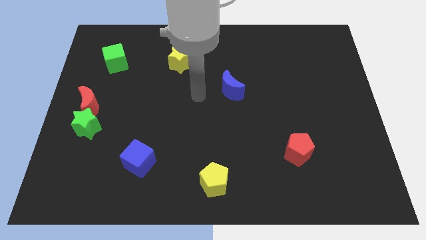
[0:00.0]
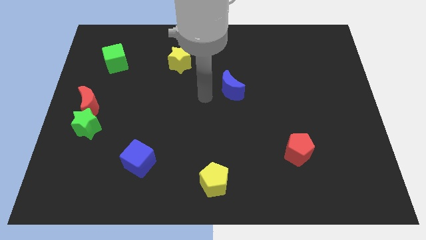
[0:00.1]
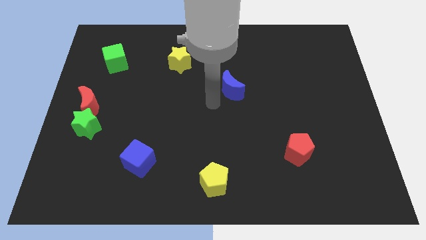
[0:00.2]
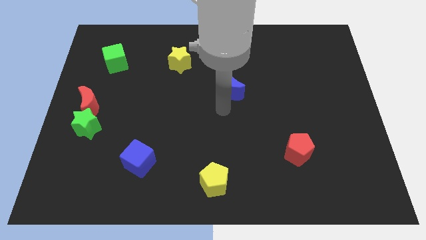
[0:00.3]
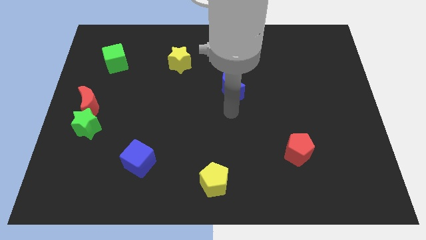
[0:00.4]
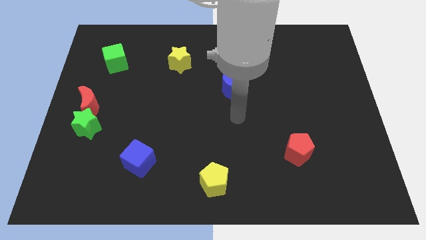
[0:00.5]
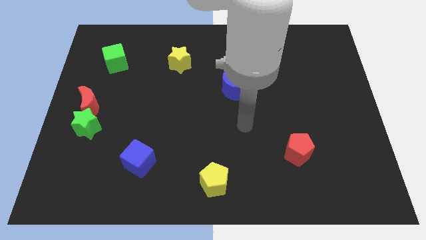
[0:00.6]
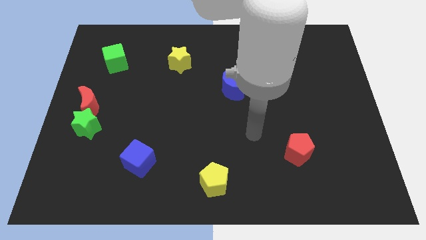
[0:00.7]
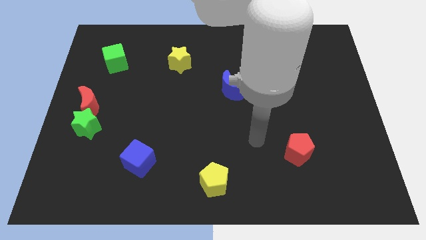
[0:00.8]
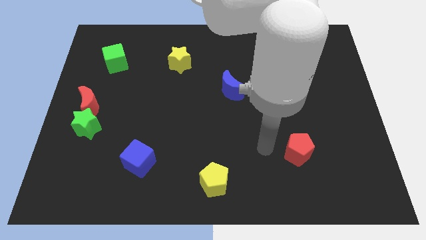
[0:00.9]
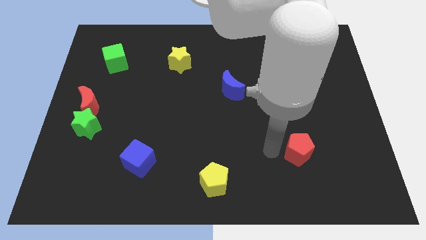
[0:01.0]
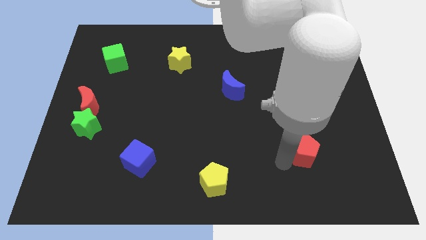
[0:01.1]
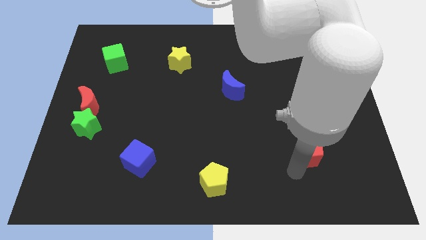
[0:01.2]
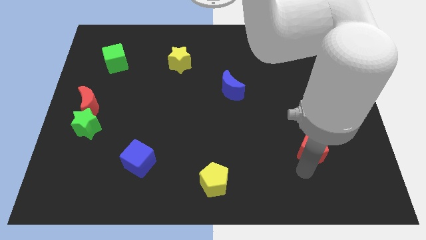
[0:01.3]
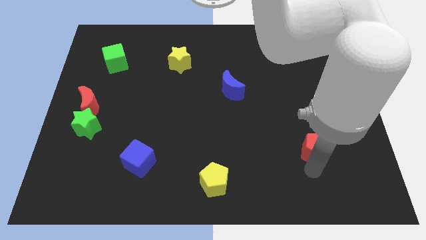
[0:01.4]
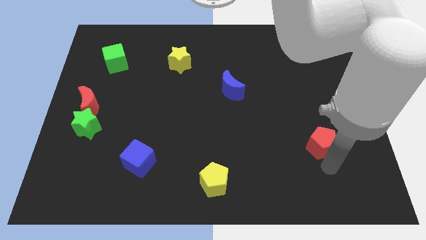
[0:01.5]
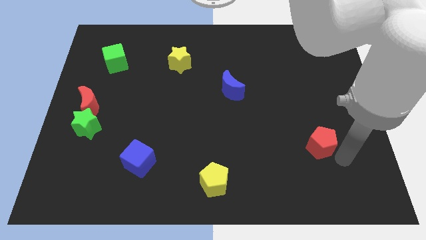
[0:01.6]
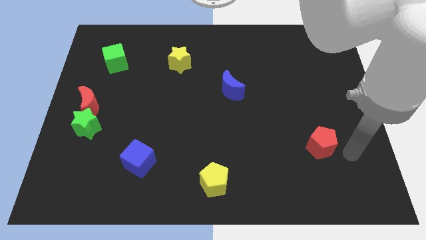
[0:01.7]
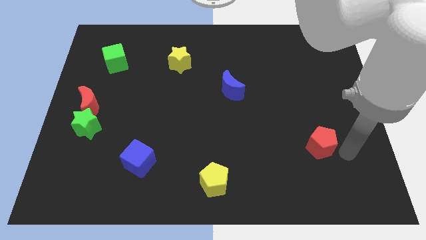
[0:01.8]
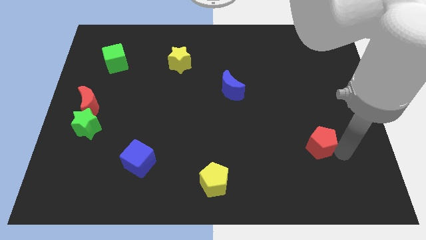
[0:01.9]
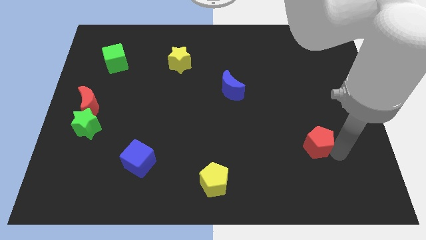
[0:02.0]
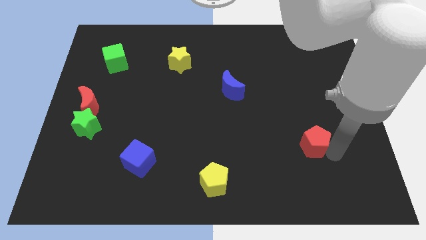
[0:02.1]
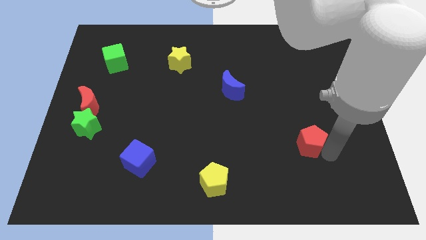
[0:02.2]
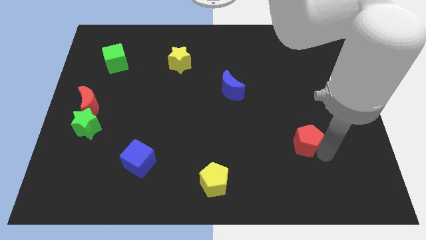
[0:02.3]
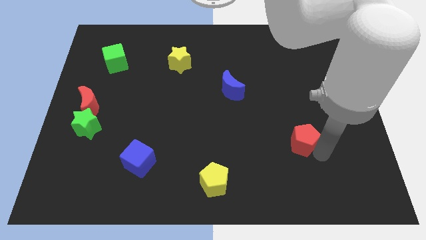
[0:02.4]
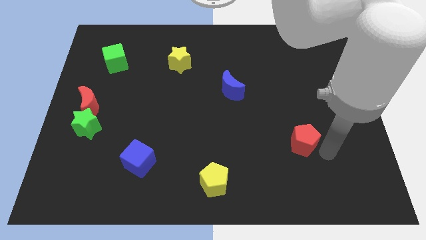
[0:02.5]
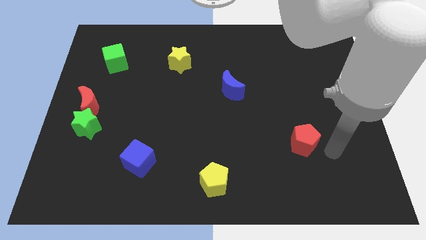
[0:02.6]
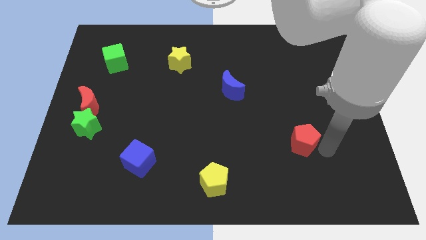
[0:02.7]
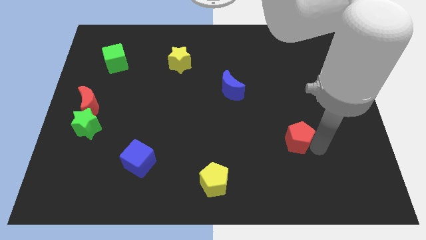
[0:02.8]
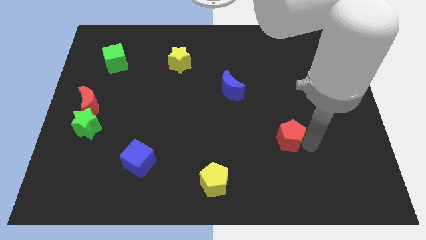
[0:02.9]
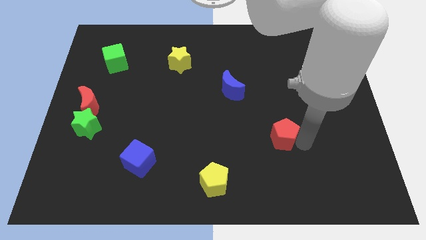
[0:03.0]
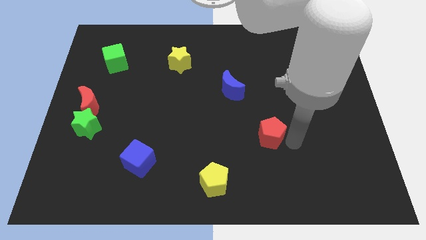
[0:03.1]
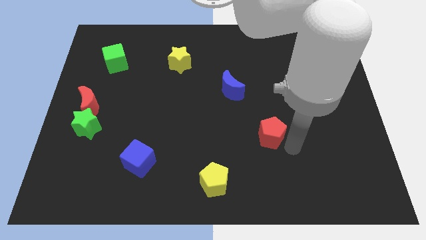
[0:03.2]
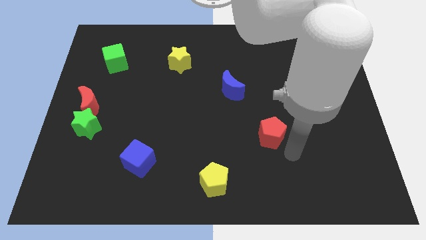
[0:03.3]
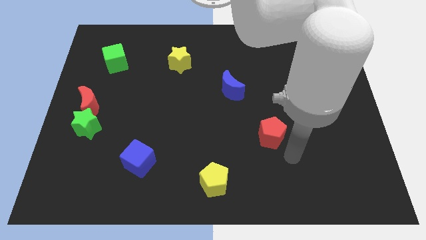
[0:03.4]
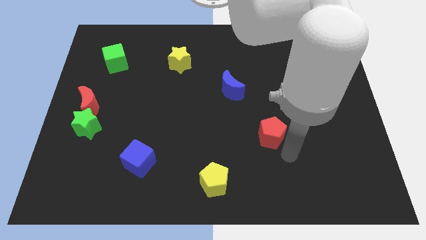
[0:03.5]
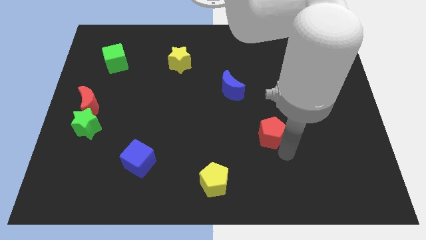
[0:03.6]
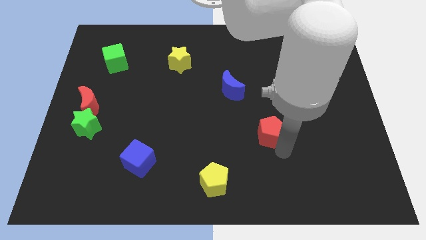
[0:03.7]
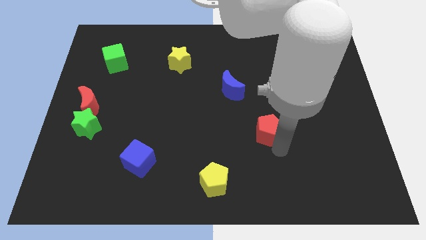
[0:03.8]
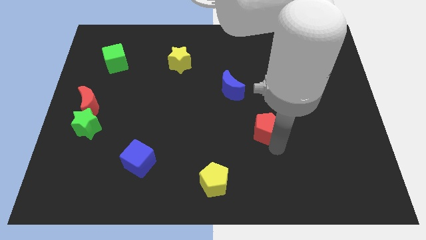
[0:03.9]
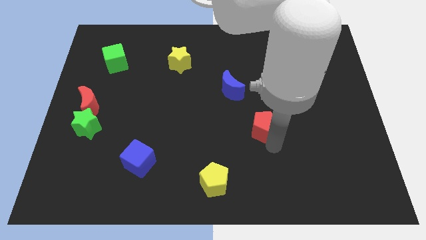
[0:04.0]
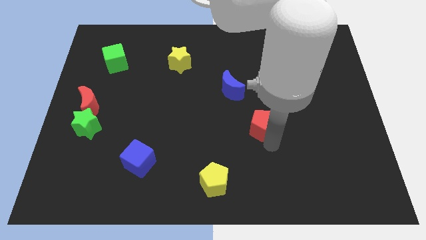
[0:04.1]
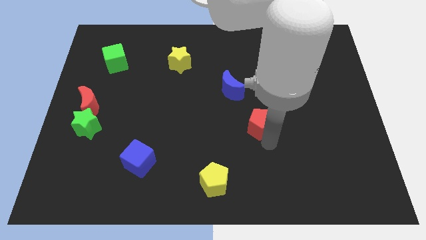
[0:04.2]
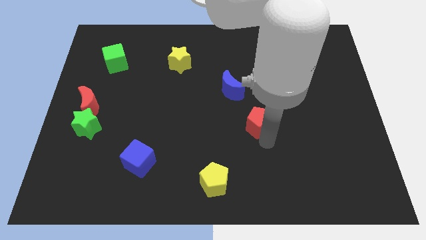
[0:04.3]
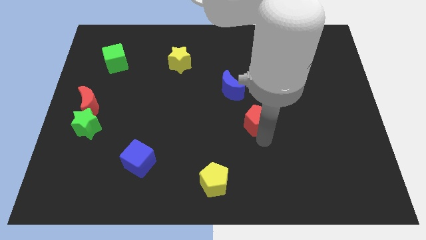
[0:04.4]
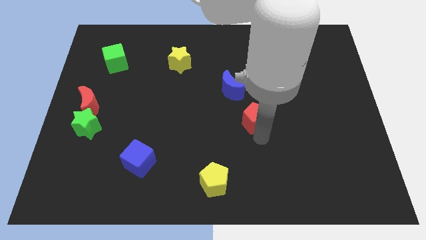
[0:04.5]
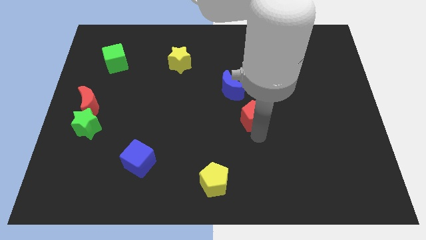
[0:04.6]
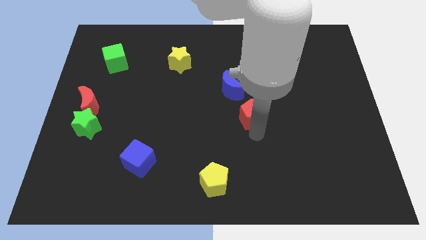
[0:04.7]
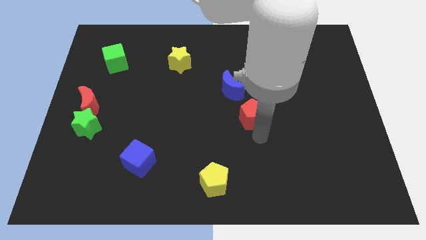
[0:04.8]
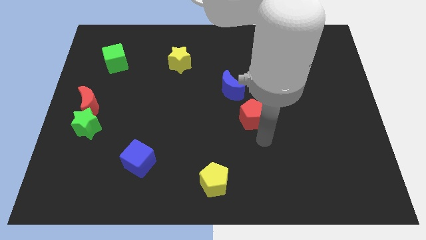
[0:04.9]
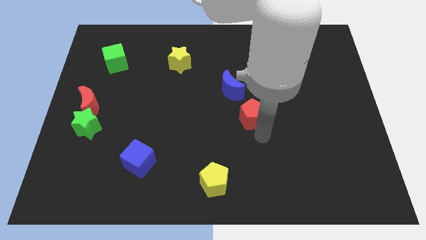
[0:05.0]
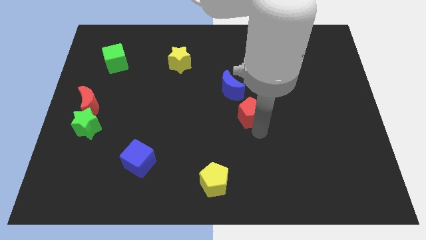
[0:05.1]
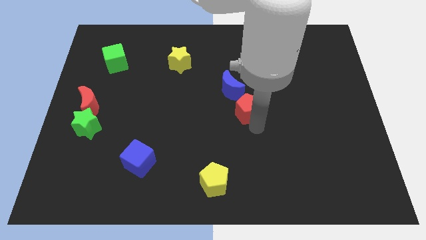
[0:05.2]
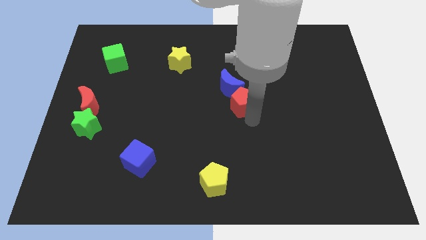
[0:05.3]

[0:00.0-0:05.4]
push the red pentagon close to the blue moon

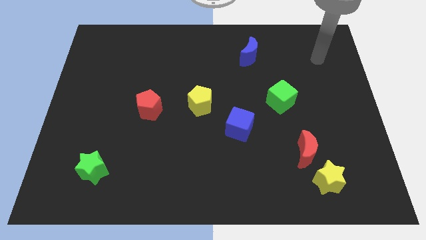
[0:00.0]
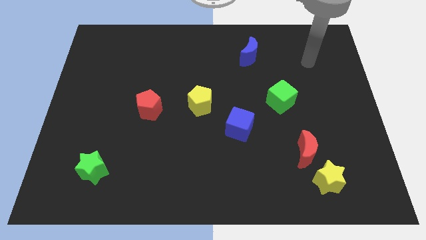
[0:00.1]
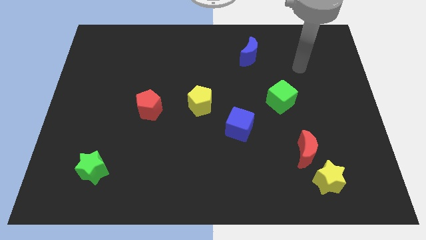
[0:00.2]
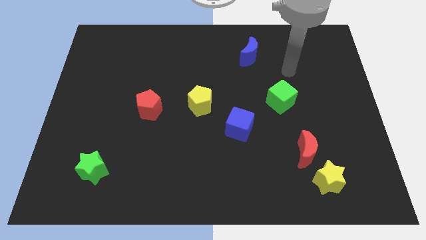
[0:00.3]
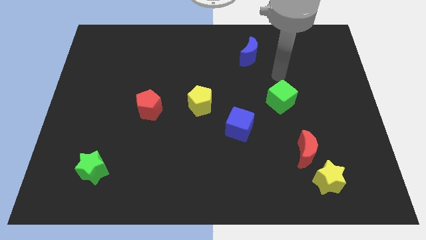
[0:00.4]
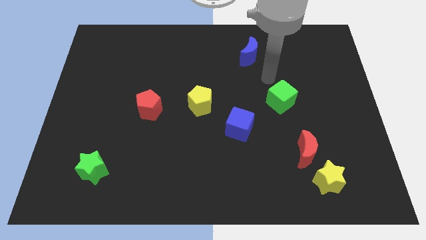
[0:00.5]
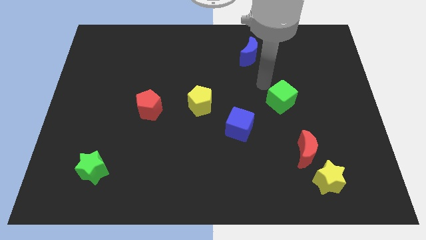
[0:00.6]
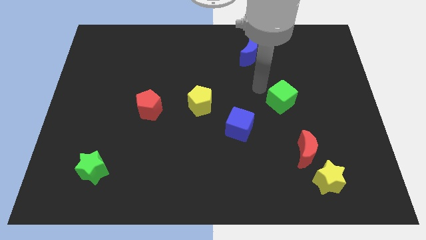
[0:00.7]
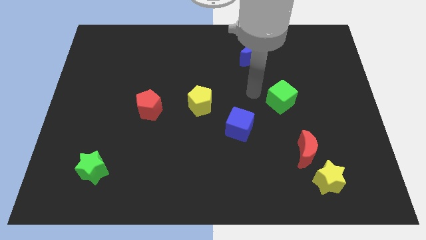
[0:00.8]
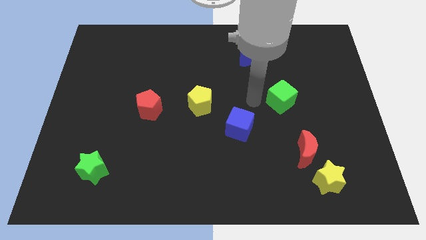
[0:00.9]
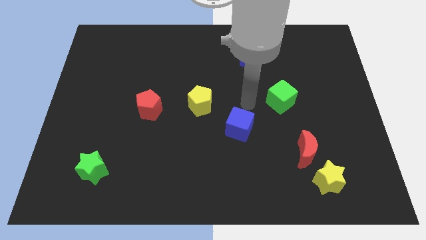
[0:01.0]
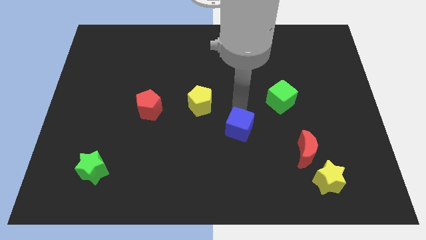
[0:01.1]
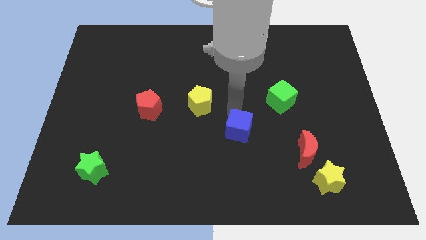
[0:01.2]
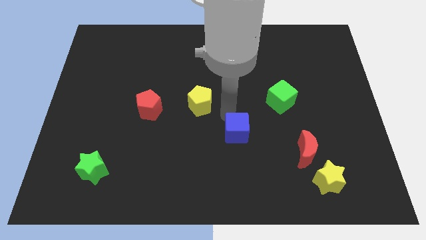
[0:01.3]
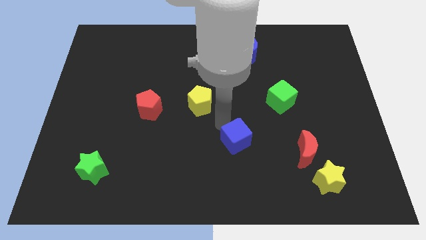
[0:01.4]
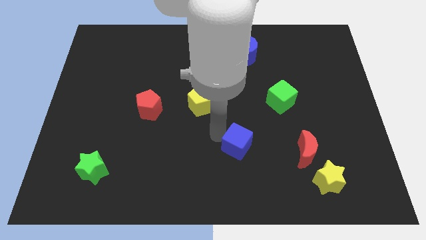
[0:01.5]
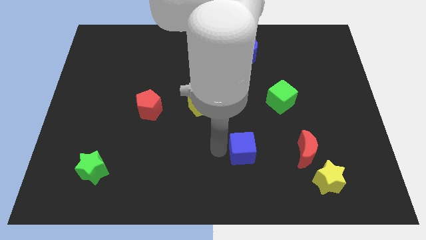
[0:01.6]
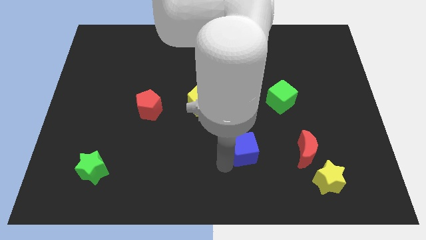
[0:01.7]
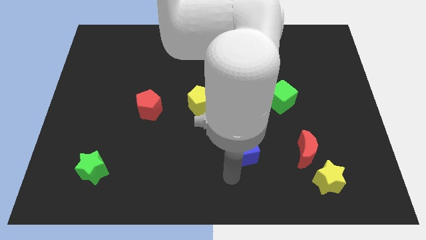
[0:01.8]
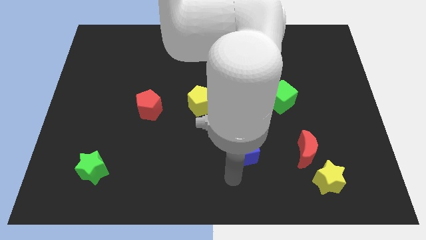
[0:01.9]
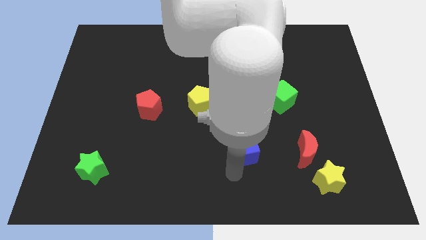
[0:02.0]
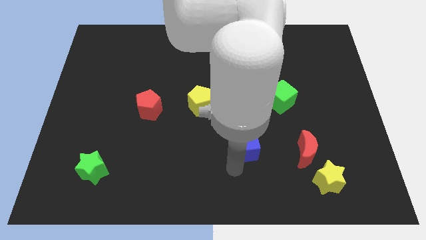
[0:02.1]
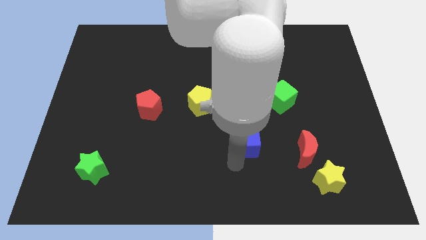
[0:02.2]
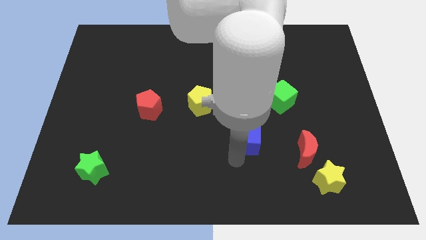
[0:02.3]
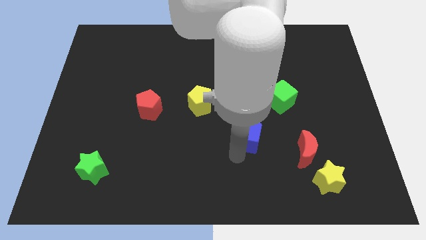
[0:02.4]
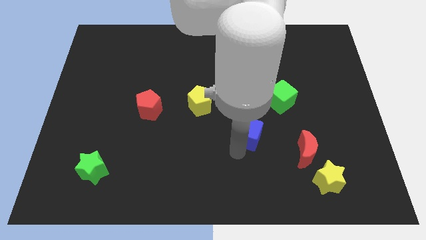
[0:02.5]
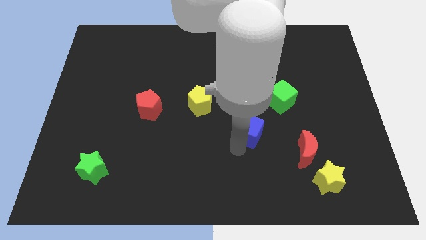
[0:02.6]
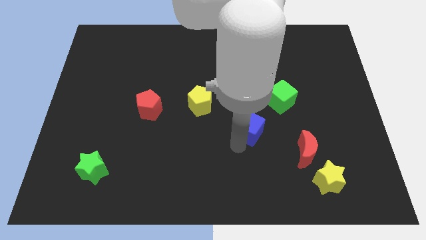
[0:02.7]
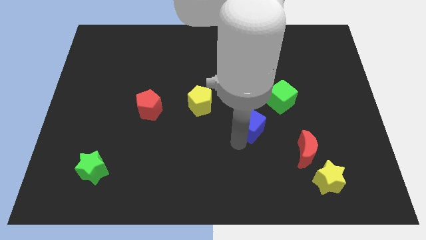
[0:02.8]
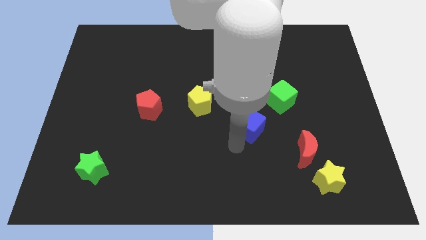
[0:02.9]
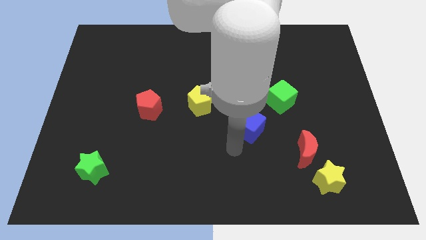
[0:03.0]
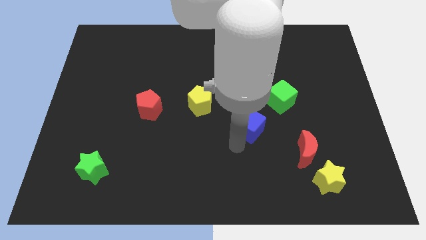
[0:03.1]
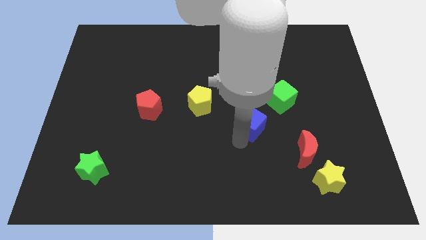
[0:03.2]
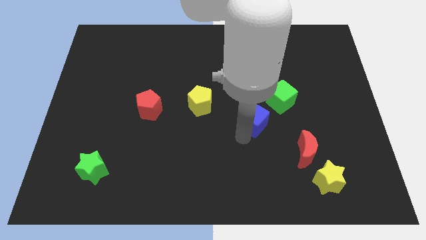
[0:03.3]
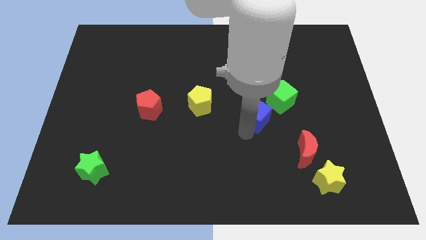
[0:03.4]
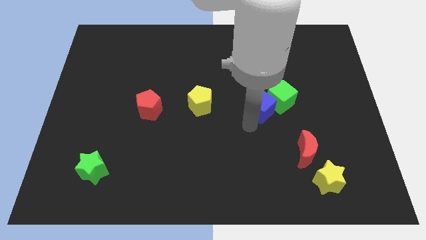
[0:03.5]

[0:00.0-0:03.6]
push the blue cube next to the green cube
